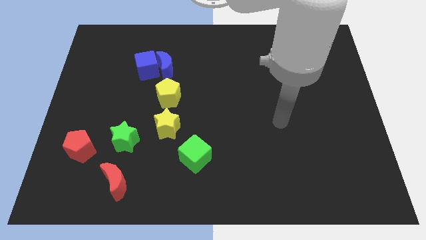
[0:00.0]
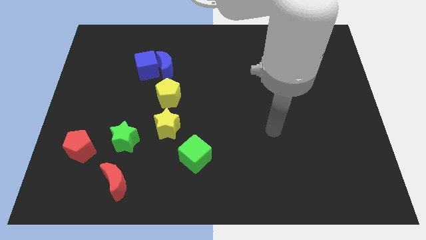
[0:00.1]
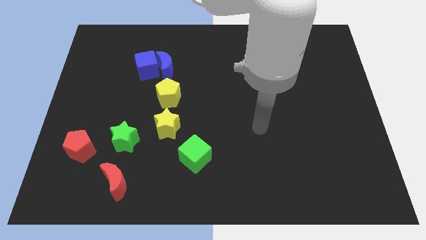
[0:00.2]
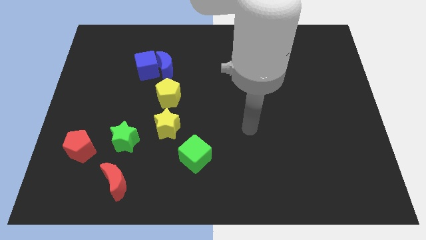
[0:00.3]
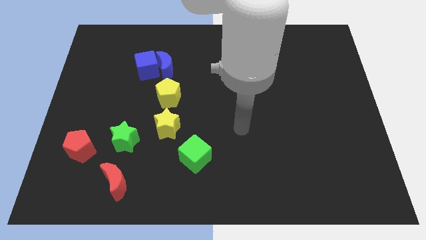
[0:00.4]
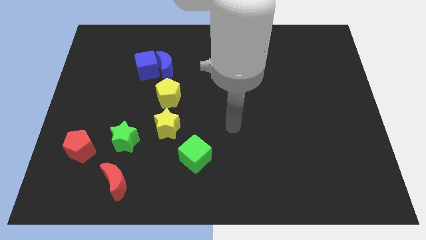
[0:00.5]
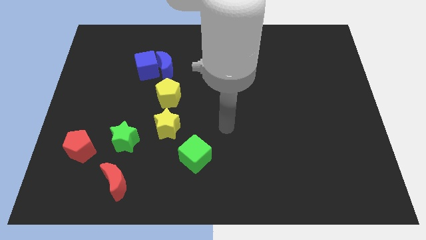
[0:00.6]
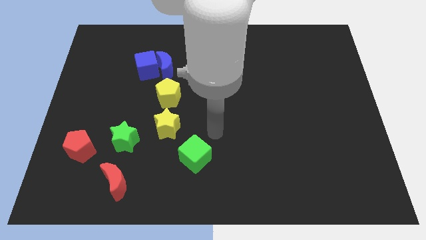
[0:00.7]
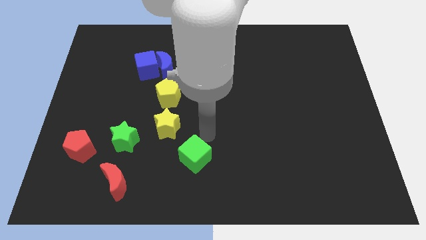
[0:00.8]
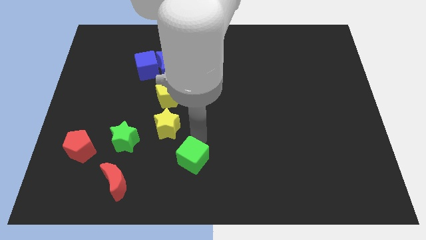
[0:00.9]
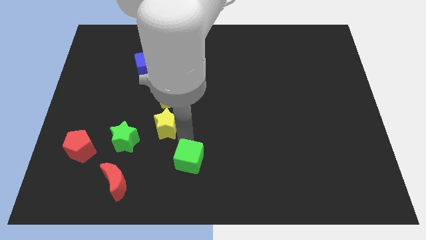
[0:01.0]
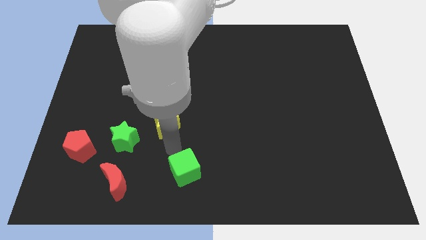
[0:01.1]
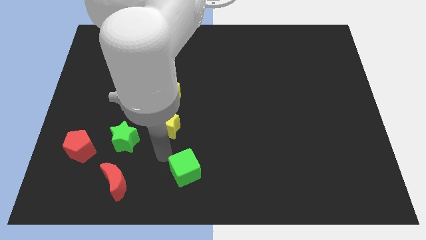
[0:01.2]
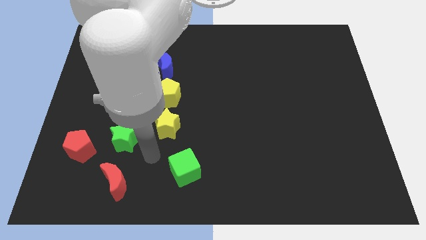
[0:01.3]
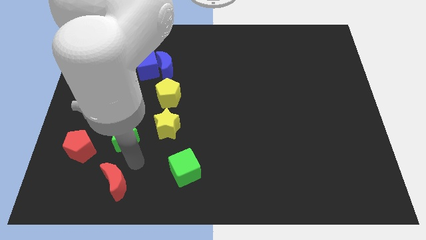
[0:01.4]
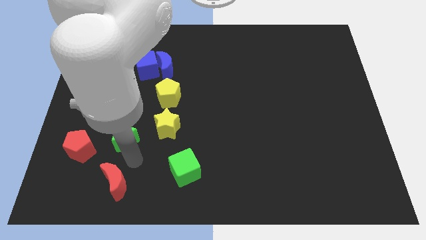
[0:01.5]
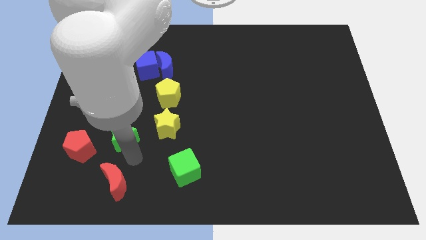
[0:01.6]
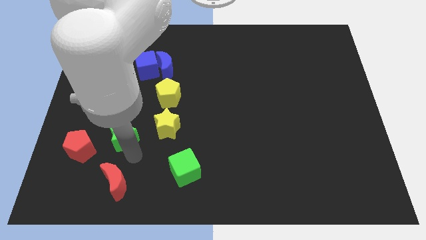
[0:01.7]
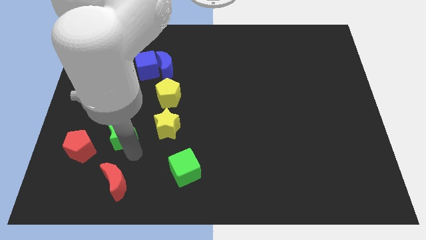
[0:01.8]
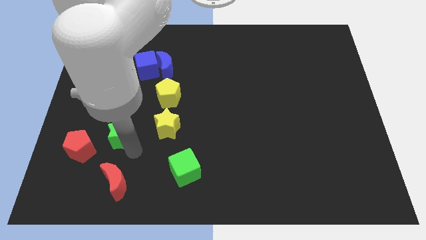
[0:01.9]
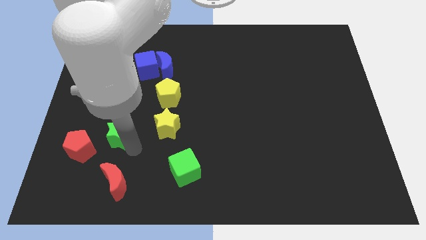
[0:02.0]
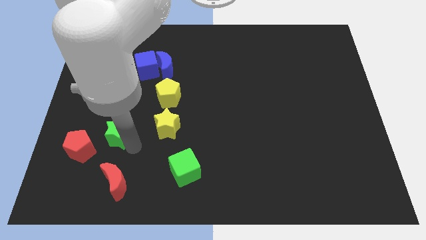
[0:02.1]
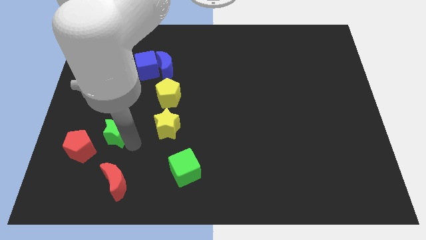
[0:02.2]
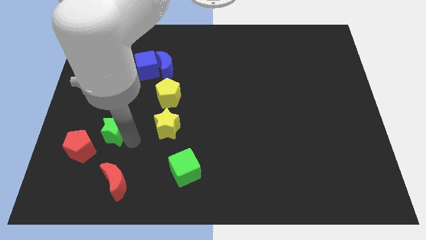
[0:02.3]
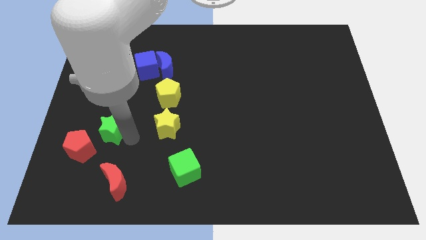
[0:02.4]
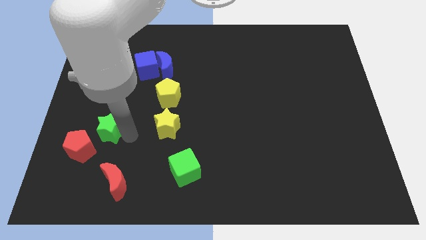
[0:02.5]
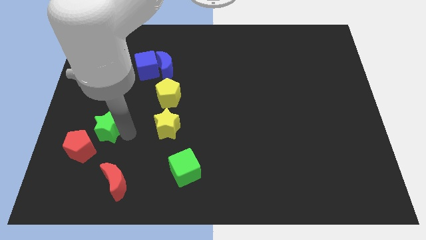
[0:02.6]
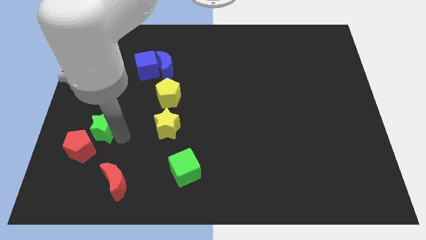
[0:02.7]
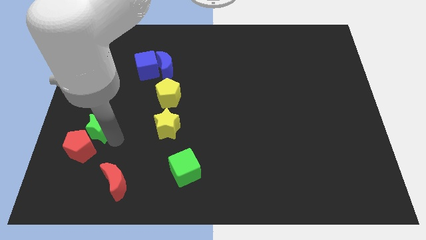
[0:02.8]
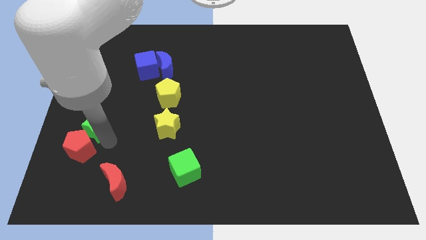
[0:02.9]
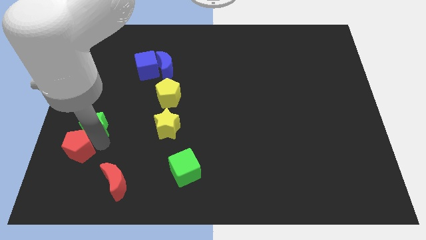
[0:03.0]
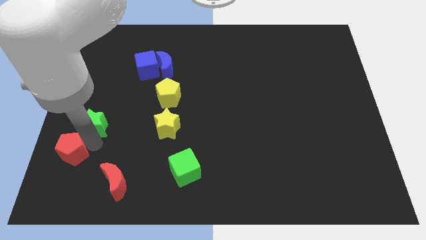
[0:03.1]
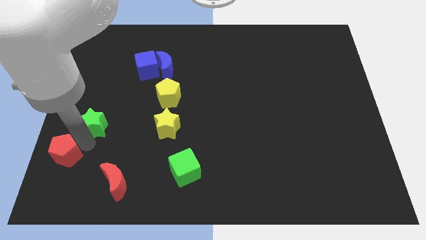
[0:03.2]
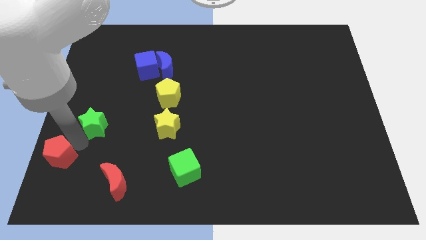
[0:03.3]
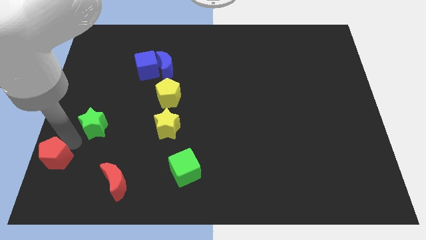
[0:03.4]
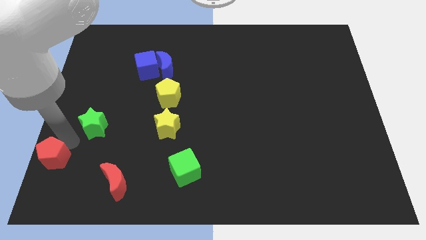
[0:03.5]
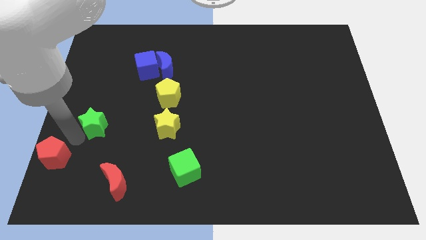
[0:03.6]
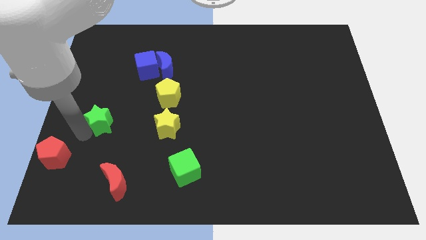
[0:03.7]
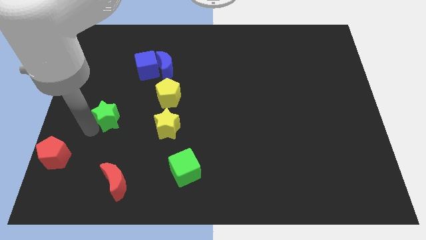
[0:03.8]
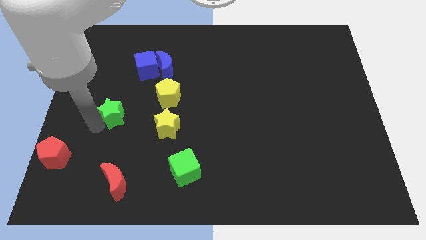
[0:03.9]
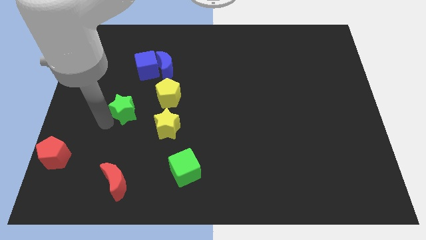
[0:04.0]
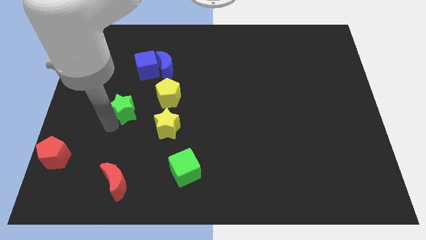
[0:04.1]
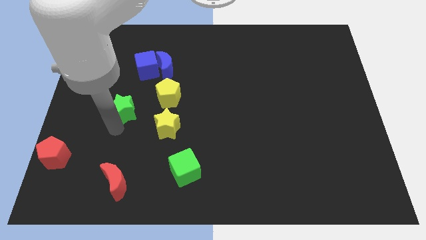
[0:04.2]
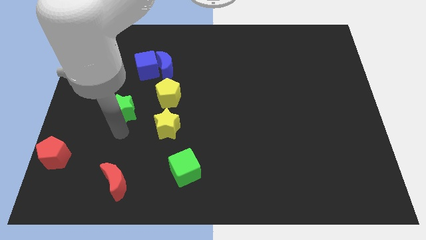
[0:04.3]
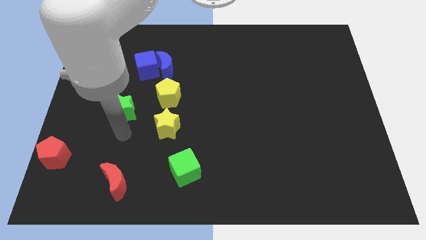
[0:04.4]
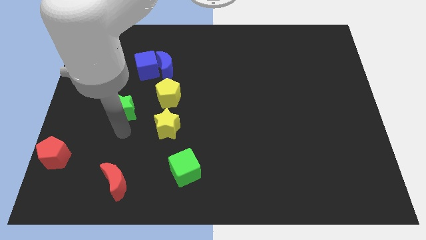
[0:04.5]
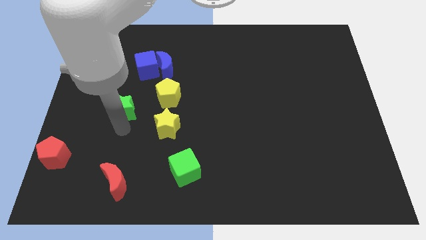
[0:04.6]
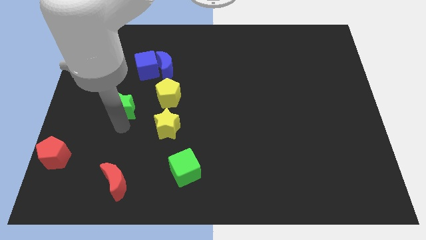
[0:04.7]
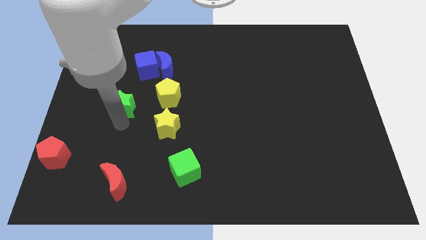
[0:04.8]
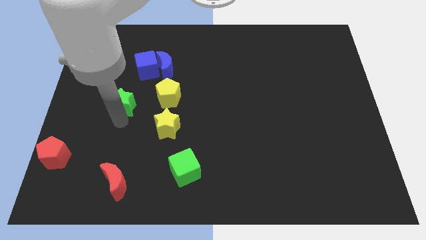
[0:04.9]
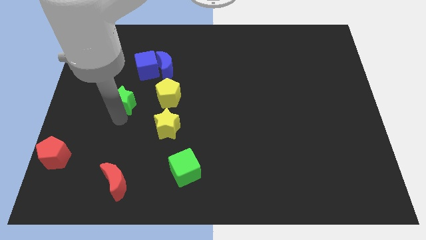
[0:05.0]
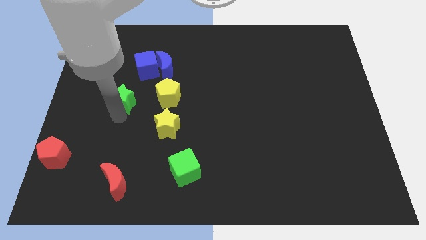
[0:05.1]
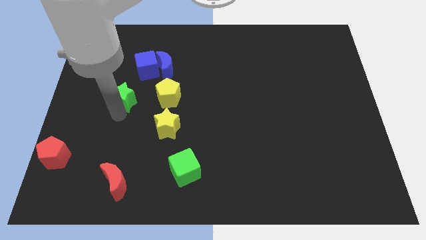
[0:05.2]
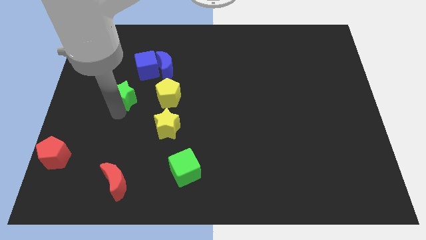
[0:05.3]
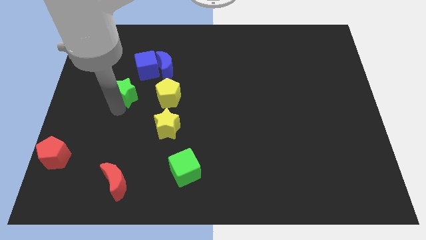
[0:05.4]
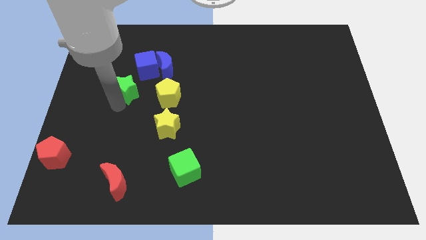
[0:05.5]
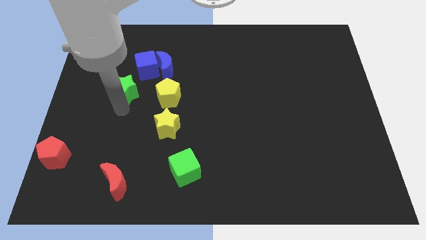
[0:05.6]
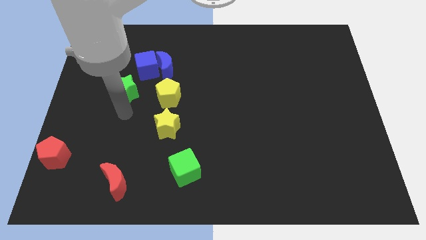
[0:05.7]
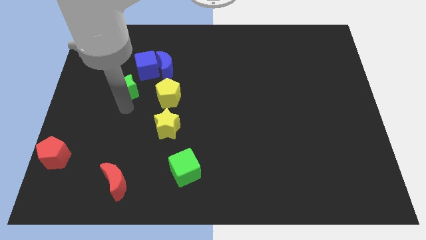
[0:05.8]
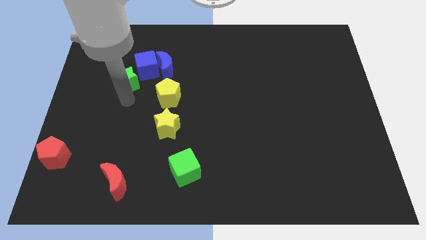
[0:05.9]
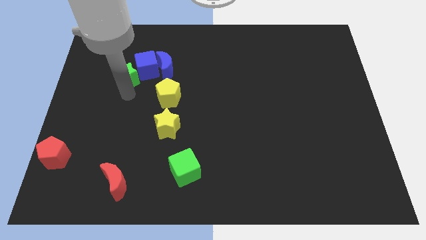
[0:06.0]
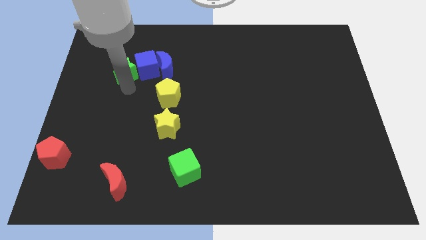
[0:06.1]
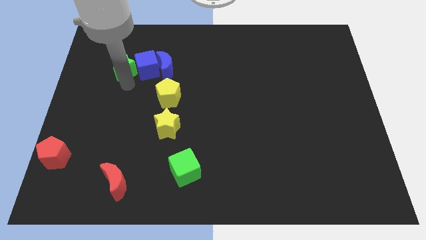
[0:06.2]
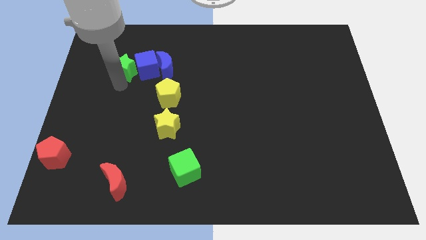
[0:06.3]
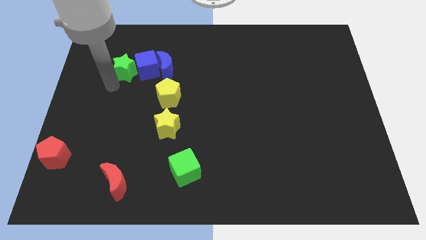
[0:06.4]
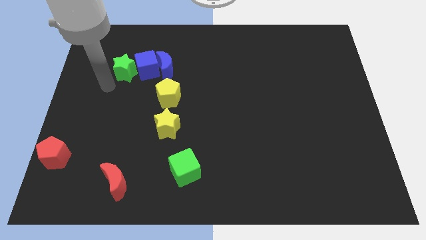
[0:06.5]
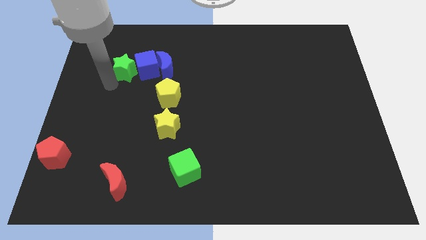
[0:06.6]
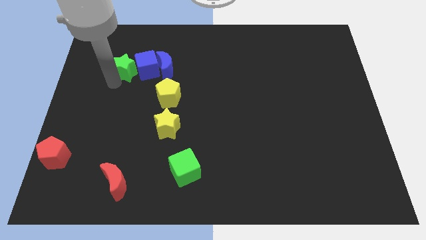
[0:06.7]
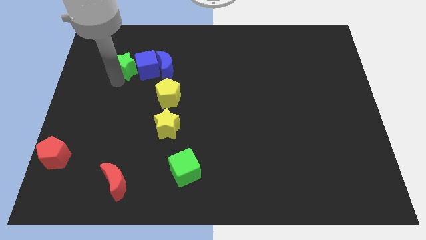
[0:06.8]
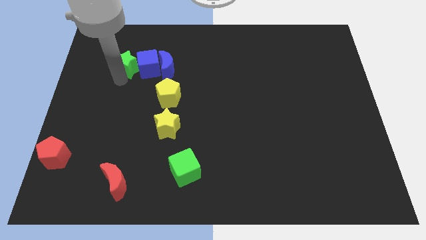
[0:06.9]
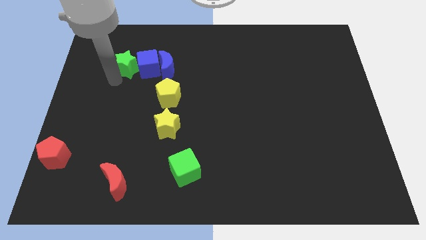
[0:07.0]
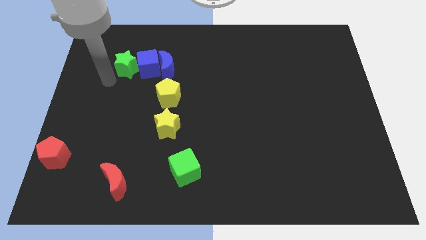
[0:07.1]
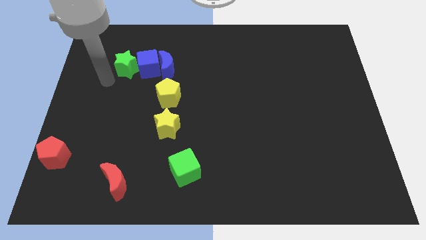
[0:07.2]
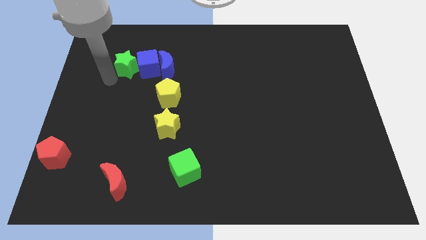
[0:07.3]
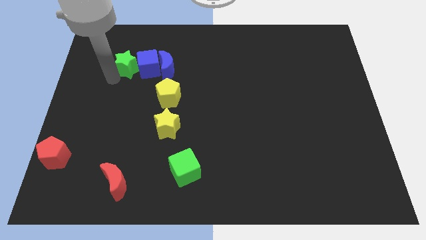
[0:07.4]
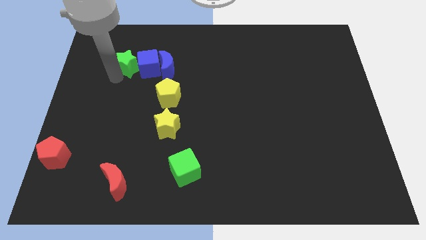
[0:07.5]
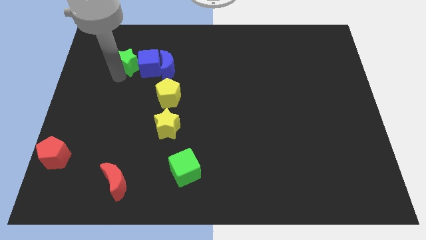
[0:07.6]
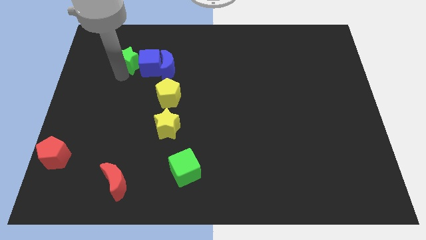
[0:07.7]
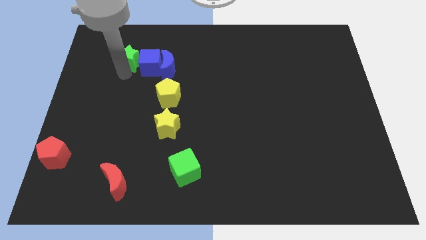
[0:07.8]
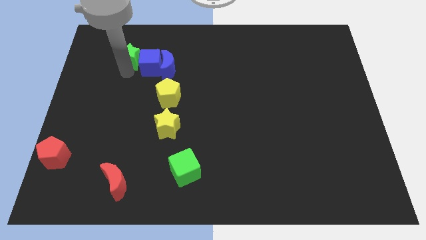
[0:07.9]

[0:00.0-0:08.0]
push the green star to the top left side of the blue moon
